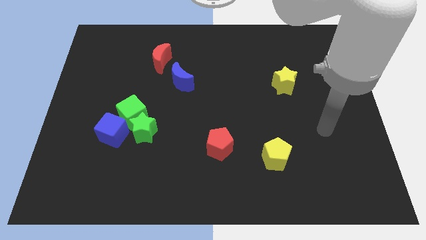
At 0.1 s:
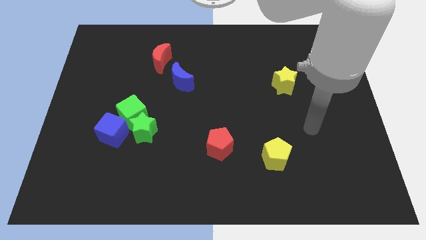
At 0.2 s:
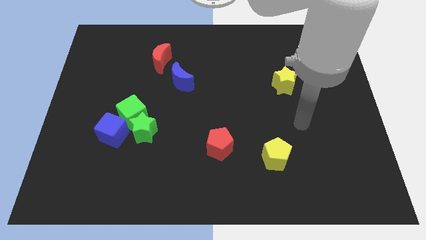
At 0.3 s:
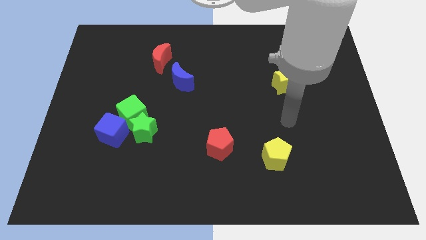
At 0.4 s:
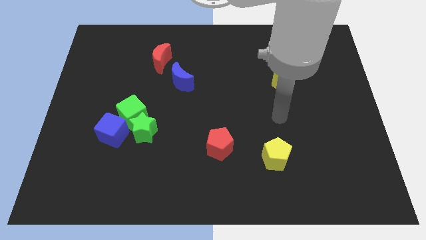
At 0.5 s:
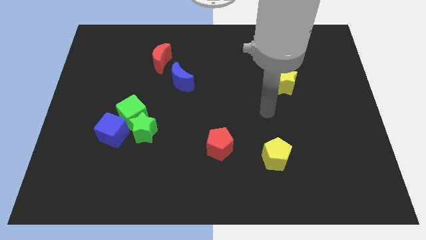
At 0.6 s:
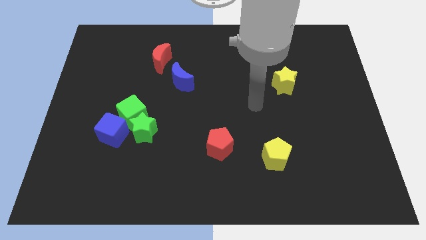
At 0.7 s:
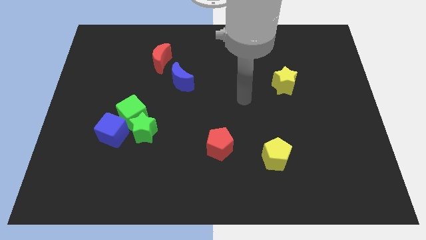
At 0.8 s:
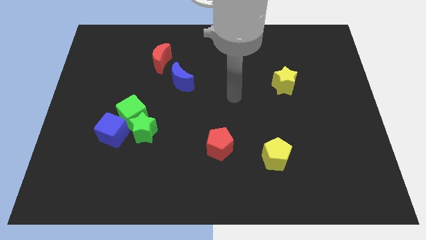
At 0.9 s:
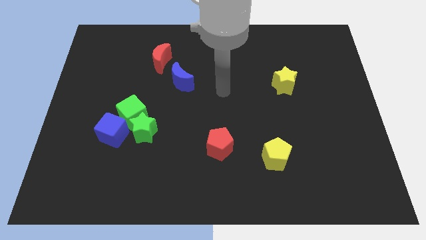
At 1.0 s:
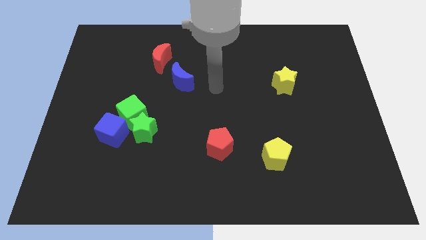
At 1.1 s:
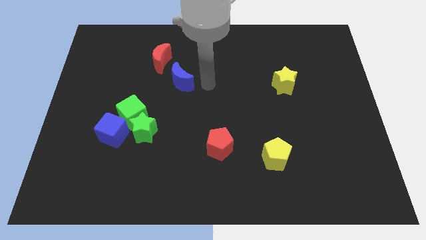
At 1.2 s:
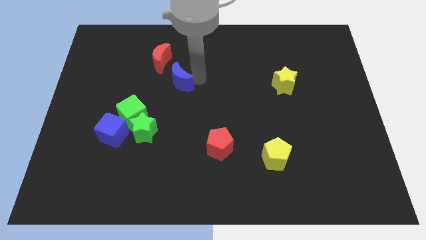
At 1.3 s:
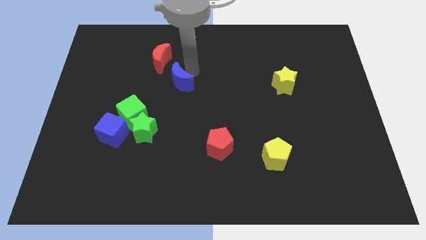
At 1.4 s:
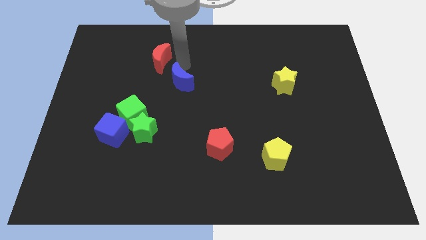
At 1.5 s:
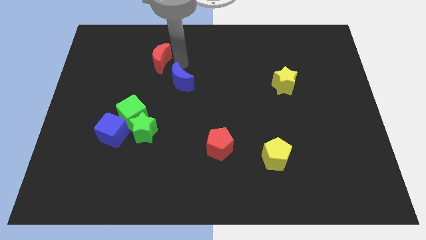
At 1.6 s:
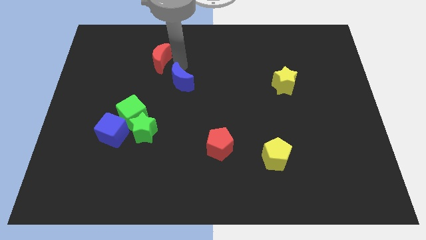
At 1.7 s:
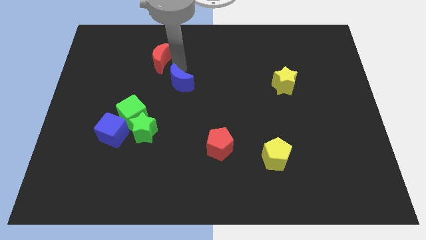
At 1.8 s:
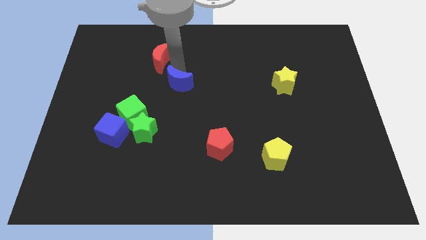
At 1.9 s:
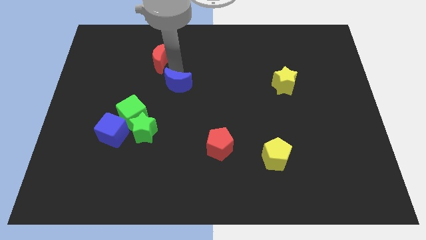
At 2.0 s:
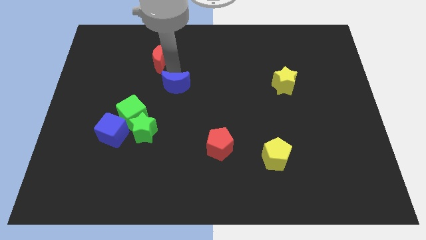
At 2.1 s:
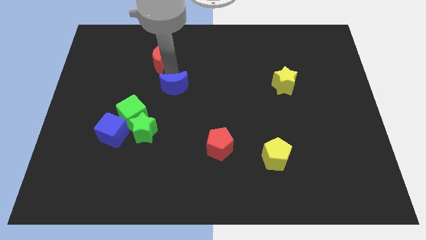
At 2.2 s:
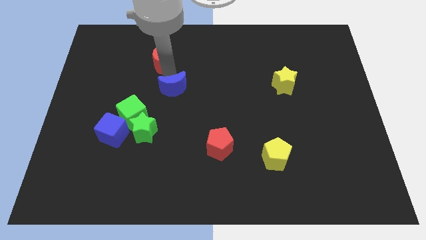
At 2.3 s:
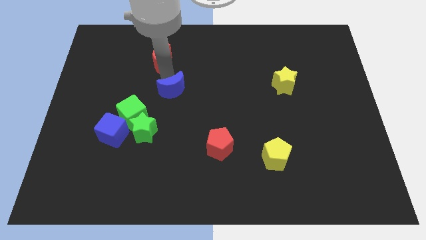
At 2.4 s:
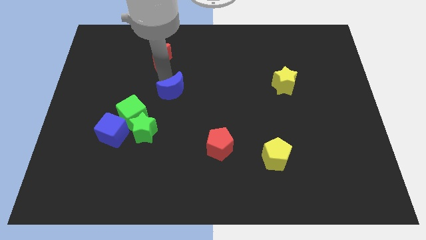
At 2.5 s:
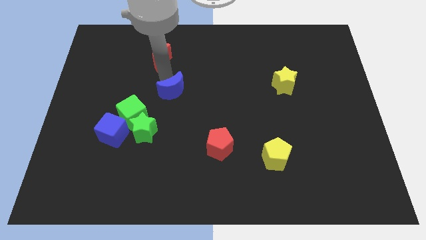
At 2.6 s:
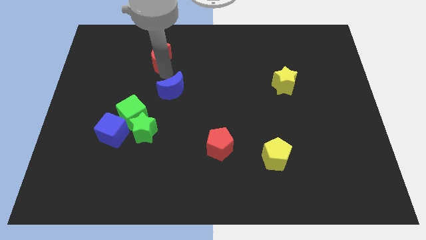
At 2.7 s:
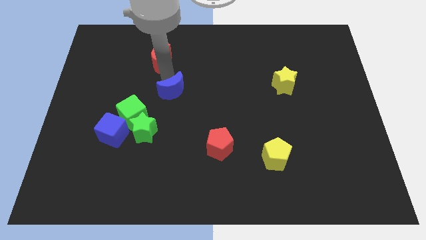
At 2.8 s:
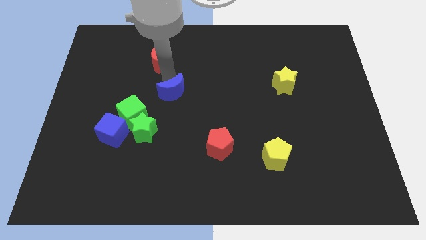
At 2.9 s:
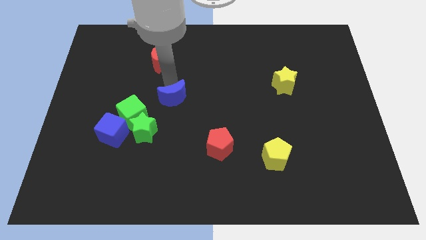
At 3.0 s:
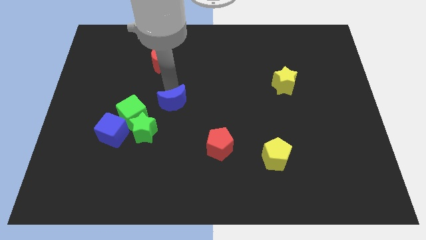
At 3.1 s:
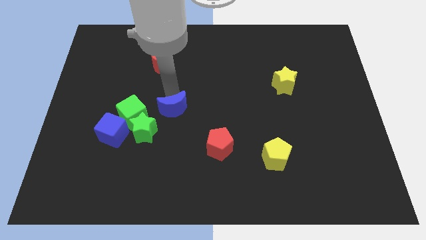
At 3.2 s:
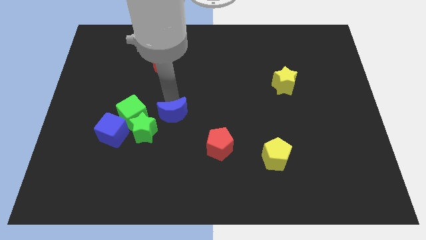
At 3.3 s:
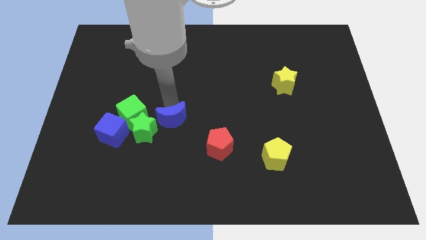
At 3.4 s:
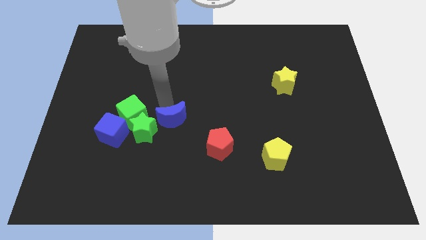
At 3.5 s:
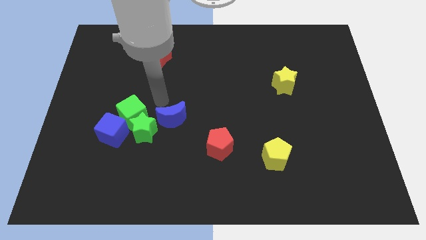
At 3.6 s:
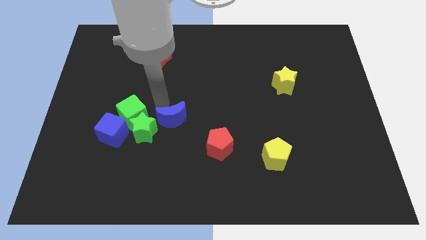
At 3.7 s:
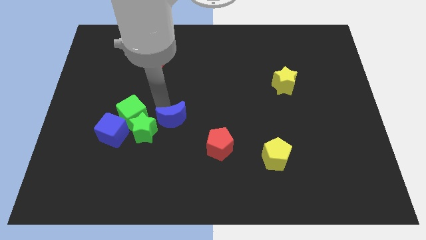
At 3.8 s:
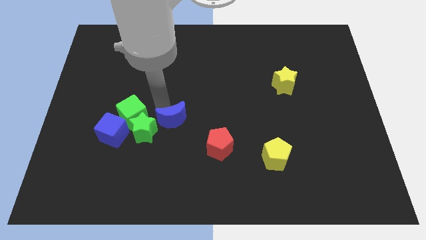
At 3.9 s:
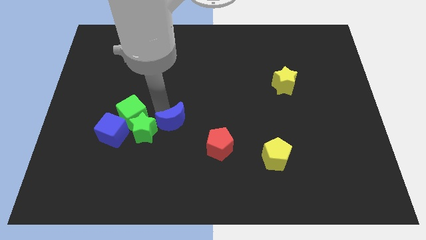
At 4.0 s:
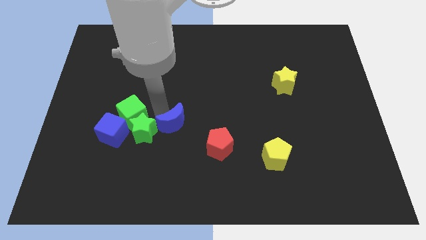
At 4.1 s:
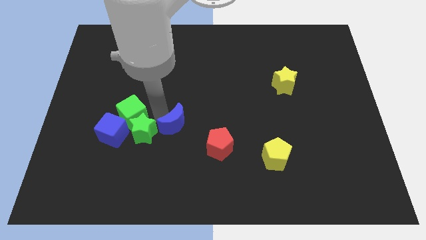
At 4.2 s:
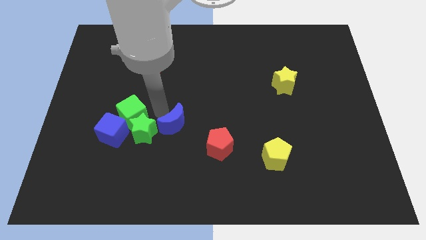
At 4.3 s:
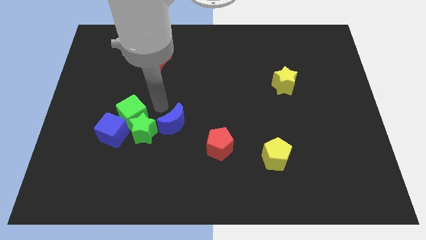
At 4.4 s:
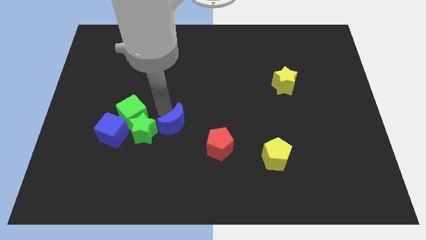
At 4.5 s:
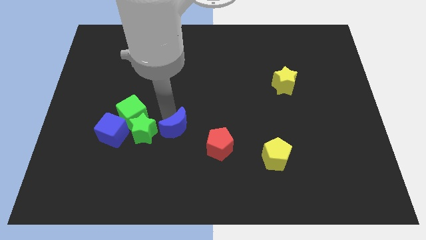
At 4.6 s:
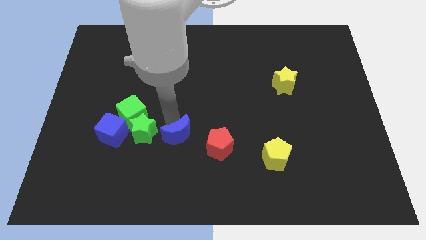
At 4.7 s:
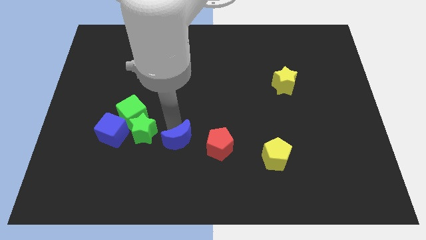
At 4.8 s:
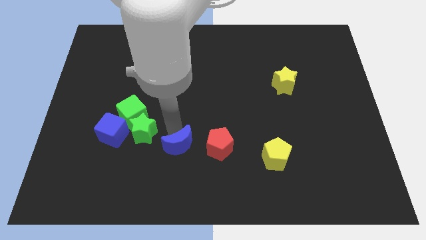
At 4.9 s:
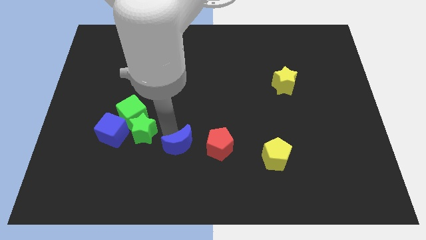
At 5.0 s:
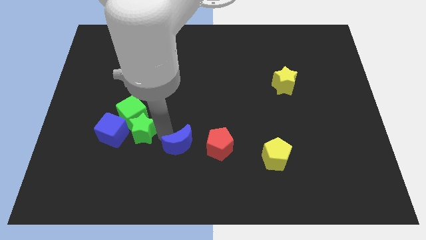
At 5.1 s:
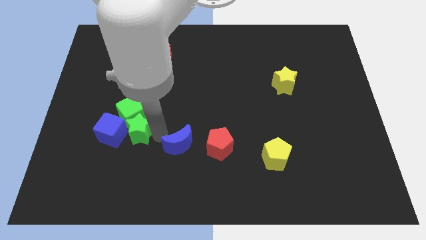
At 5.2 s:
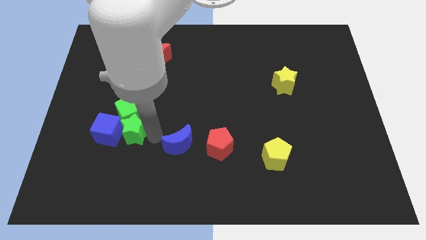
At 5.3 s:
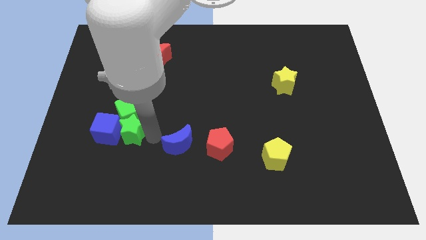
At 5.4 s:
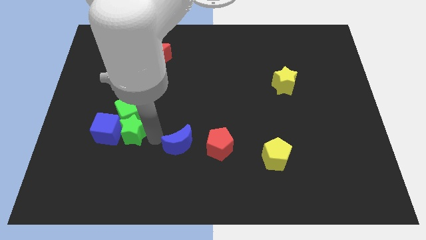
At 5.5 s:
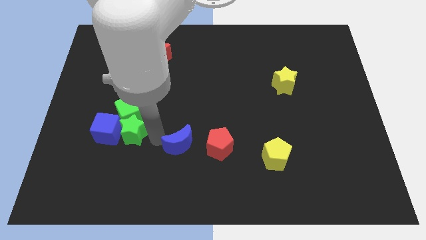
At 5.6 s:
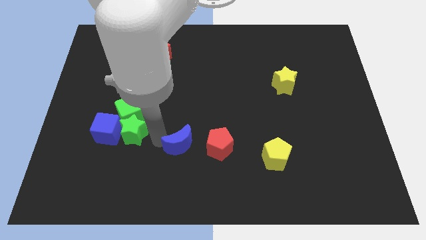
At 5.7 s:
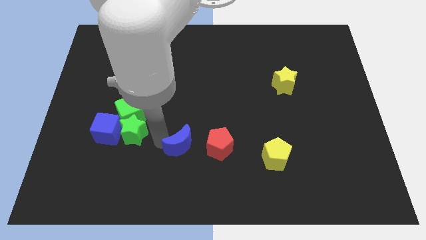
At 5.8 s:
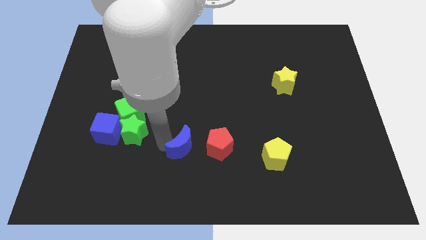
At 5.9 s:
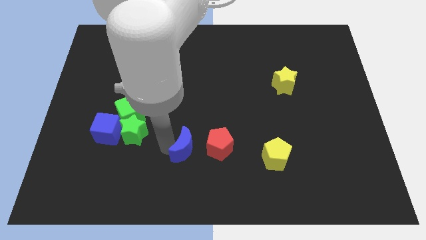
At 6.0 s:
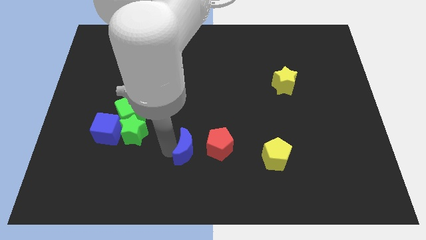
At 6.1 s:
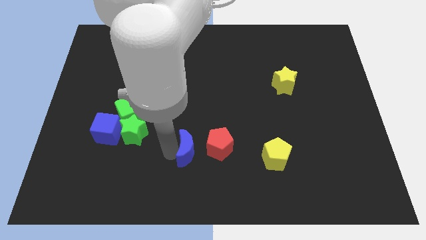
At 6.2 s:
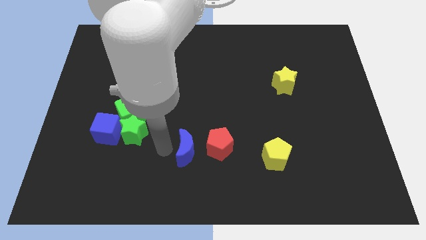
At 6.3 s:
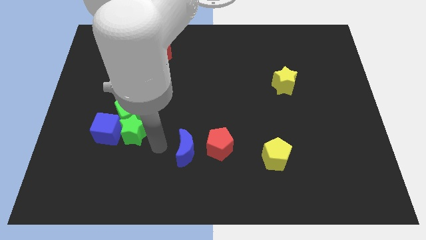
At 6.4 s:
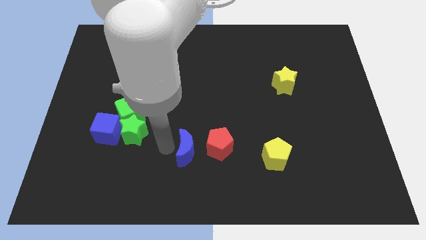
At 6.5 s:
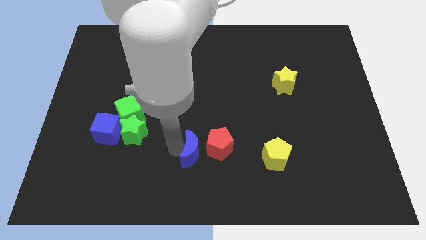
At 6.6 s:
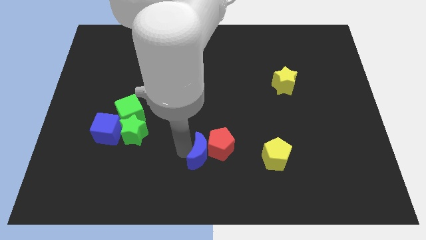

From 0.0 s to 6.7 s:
push the blue moon to the left side of the yellow pentagon

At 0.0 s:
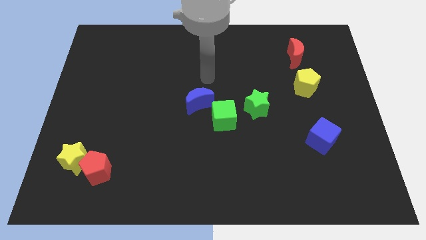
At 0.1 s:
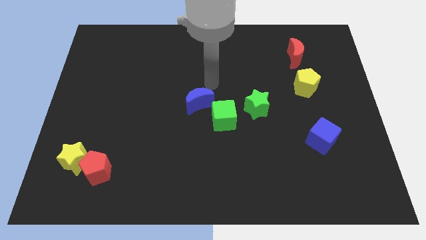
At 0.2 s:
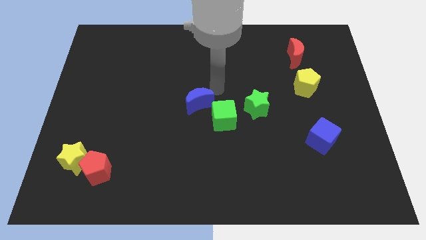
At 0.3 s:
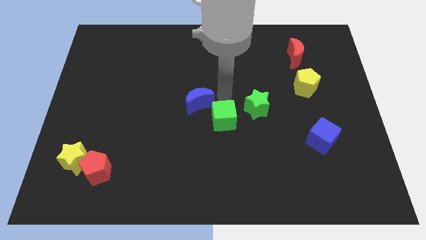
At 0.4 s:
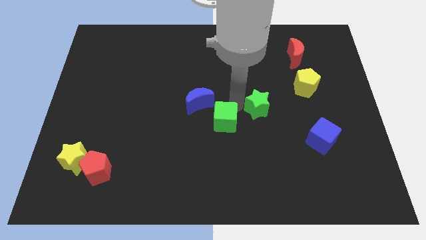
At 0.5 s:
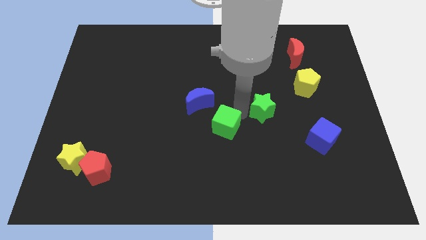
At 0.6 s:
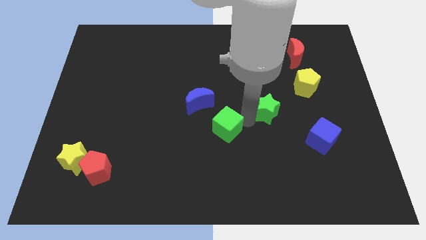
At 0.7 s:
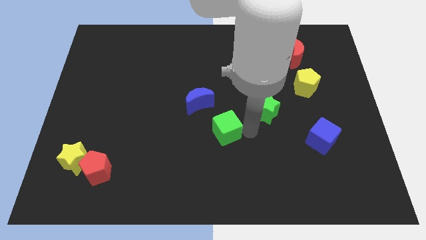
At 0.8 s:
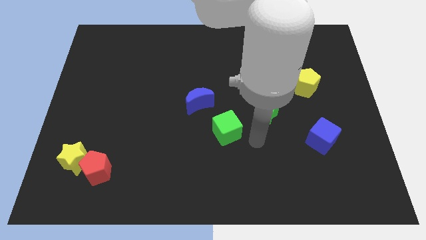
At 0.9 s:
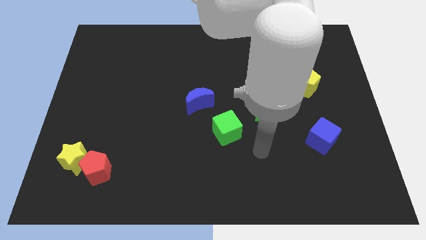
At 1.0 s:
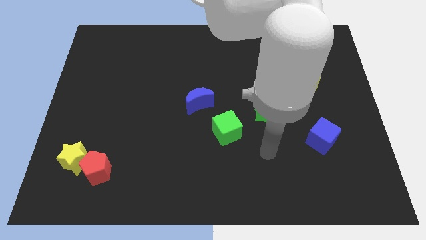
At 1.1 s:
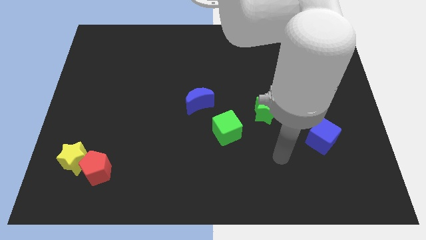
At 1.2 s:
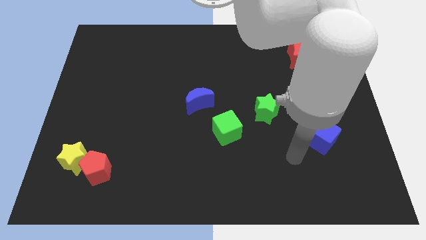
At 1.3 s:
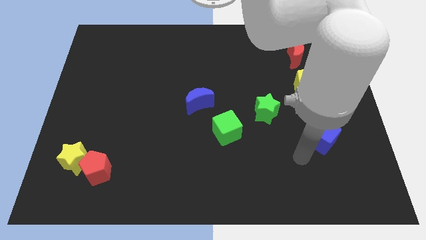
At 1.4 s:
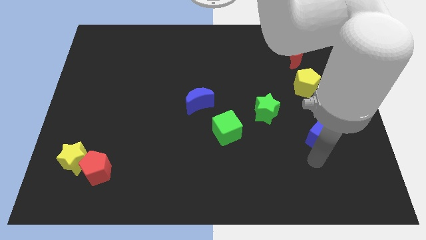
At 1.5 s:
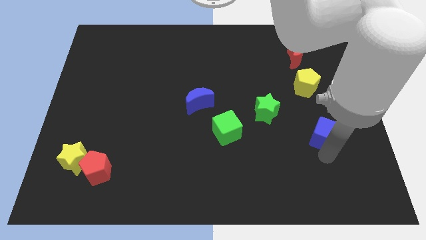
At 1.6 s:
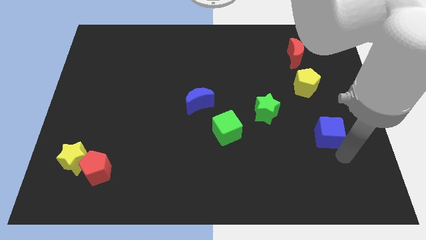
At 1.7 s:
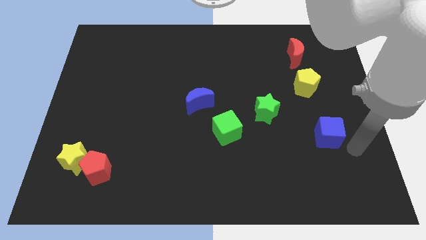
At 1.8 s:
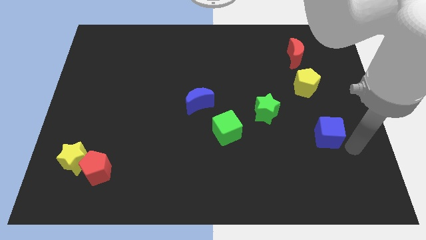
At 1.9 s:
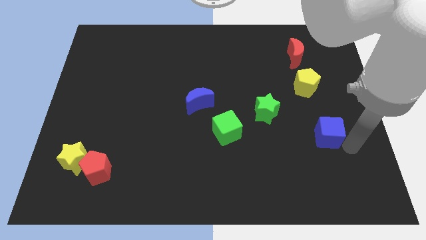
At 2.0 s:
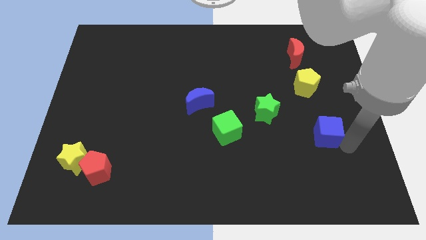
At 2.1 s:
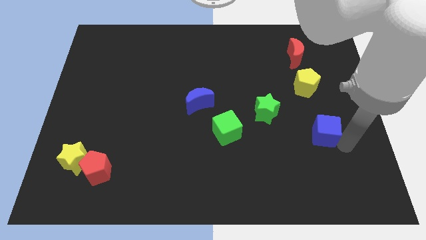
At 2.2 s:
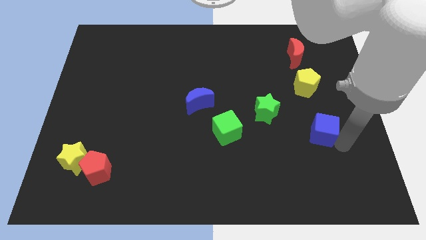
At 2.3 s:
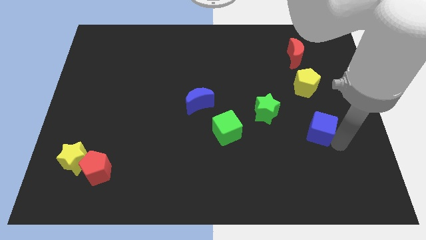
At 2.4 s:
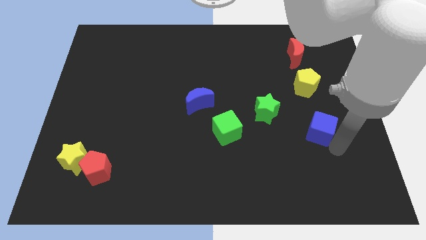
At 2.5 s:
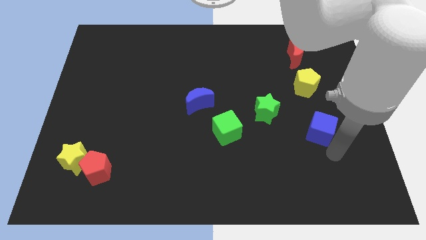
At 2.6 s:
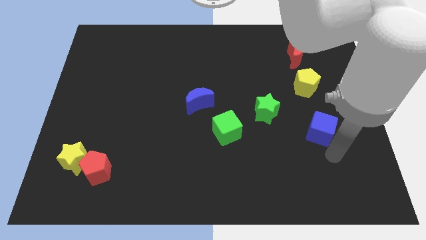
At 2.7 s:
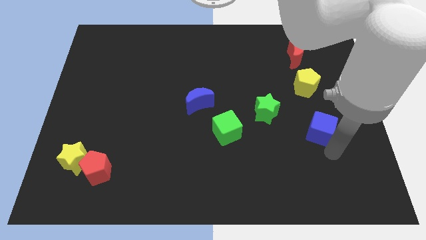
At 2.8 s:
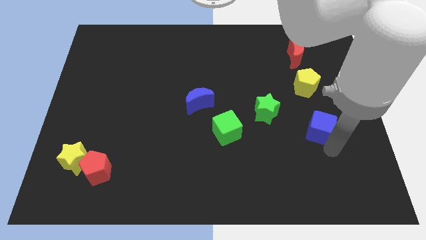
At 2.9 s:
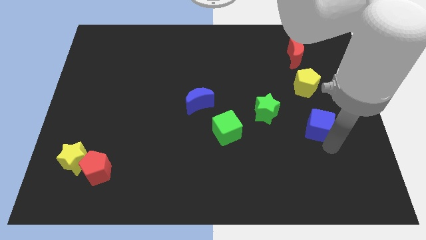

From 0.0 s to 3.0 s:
put the blue cube just right of the green star
